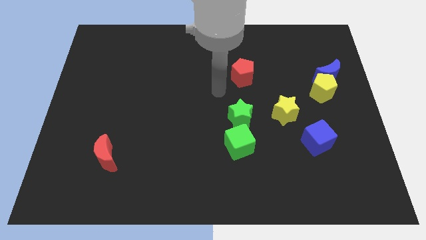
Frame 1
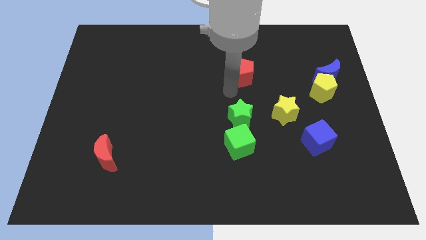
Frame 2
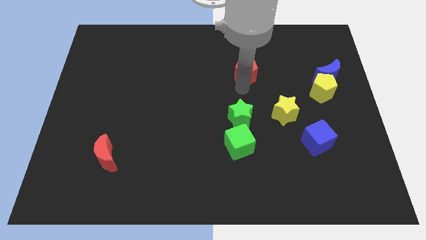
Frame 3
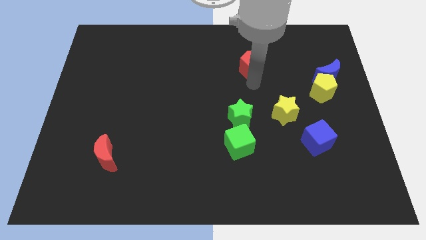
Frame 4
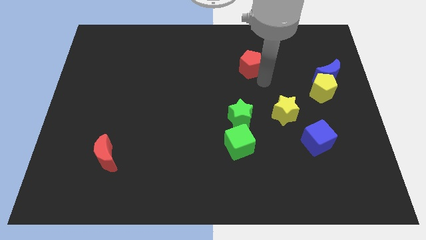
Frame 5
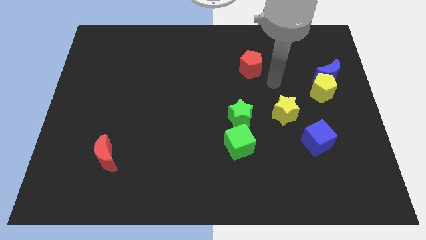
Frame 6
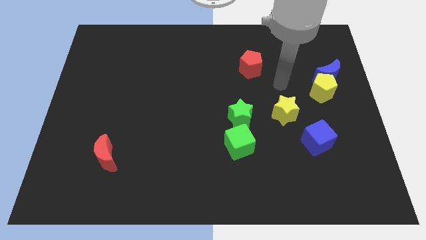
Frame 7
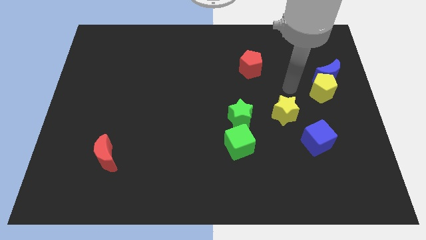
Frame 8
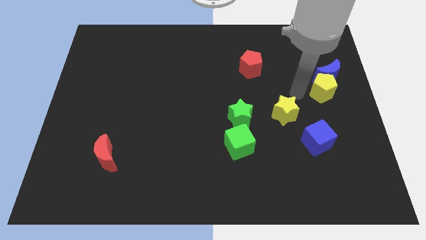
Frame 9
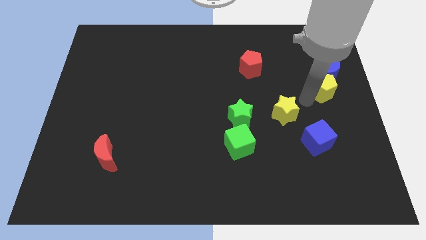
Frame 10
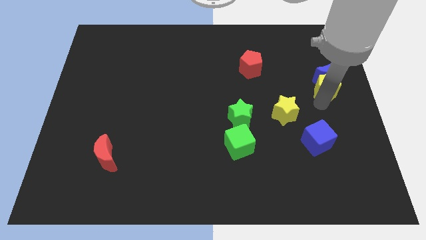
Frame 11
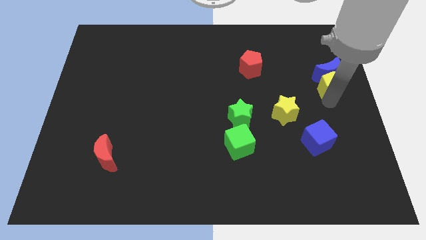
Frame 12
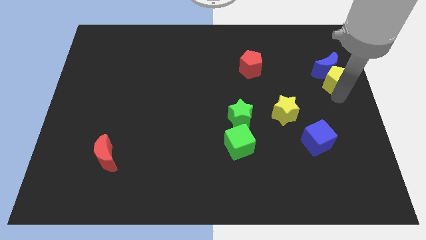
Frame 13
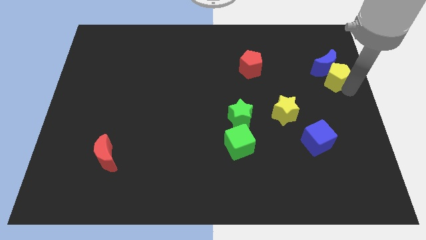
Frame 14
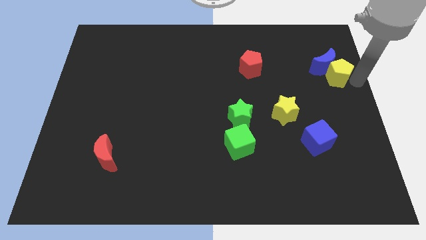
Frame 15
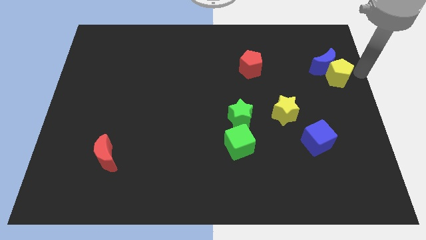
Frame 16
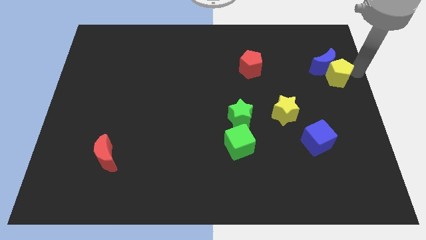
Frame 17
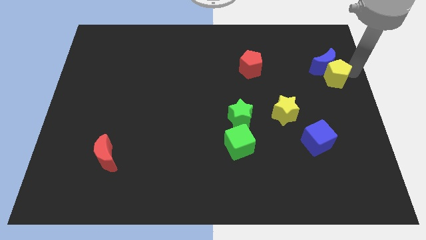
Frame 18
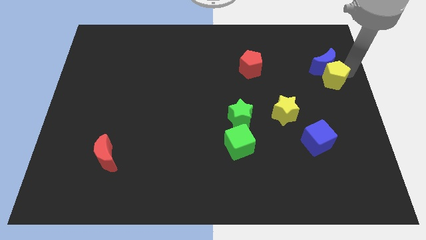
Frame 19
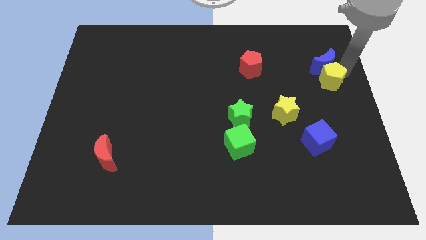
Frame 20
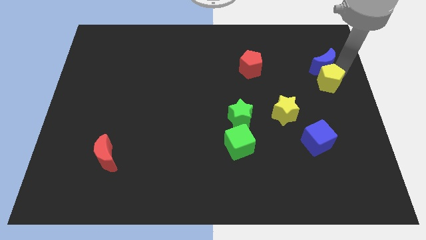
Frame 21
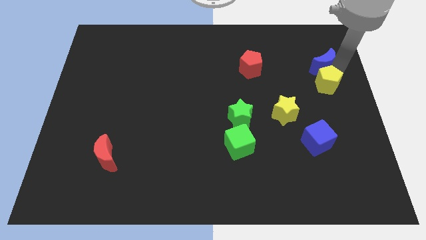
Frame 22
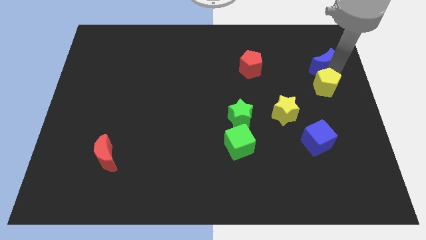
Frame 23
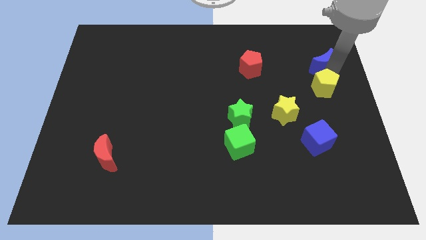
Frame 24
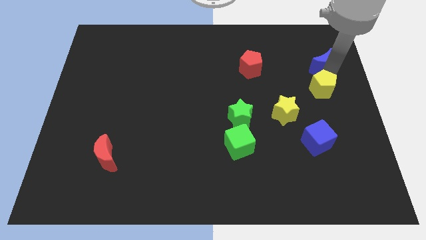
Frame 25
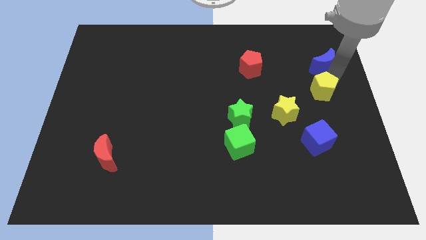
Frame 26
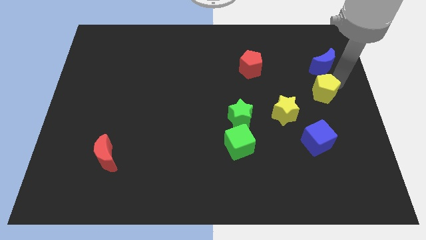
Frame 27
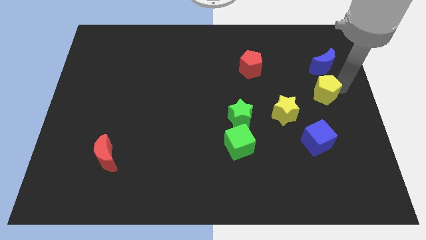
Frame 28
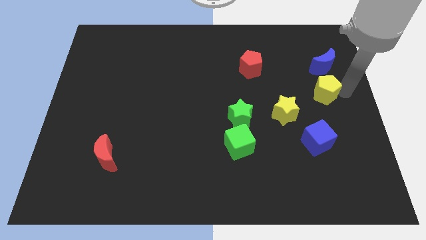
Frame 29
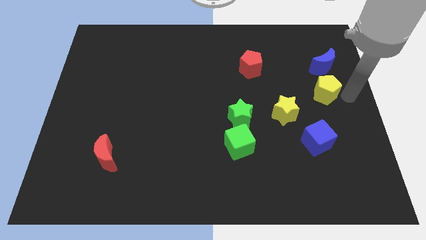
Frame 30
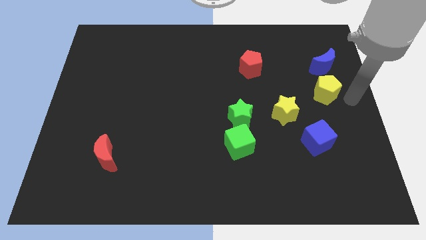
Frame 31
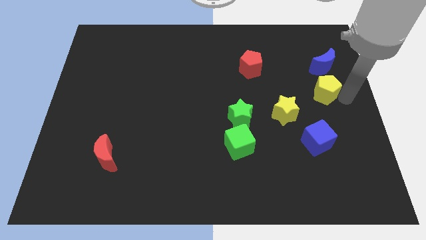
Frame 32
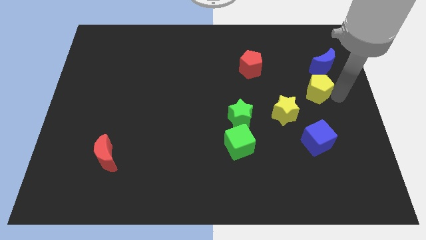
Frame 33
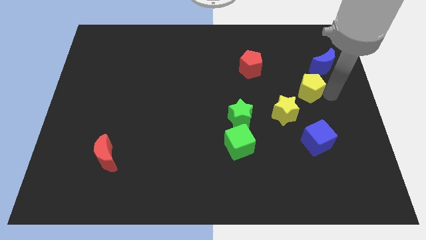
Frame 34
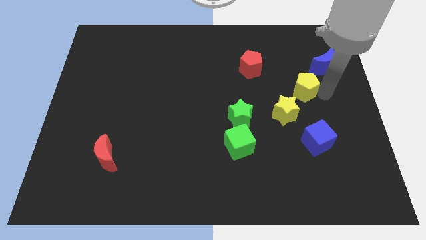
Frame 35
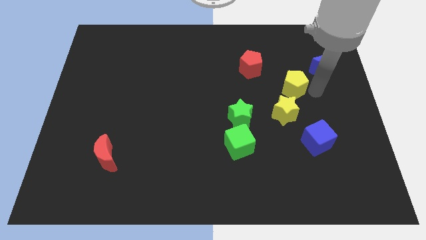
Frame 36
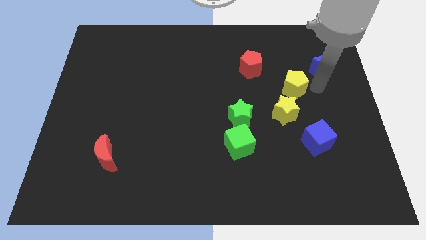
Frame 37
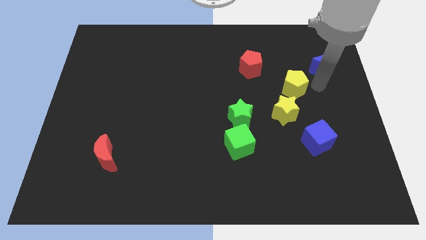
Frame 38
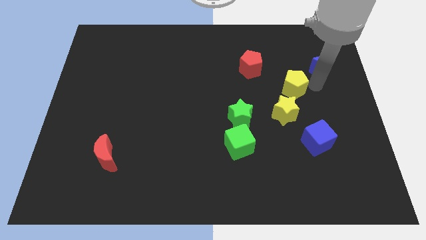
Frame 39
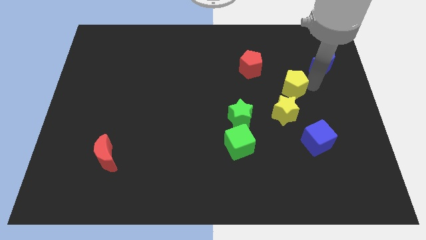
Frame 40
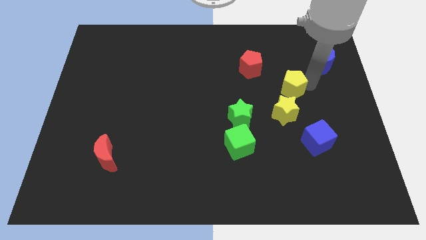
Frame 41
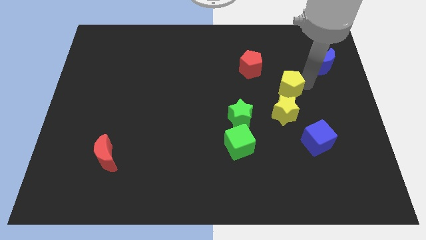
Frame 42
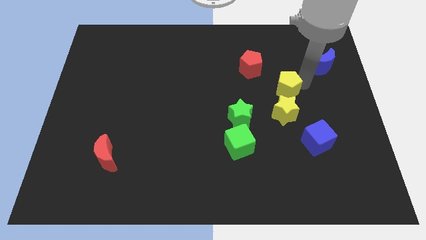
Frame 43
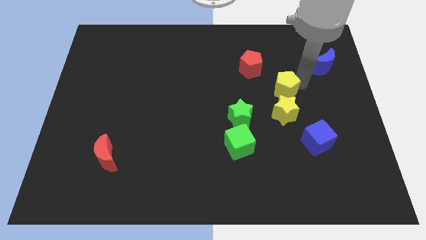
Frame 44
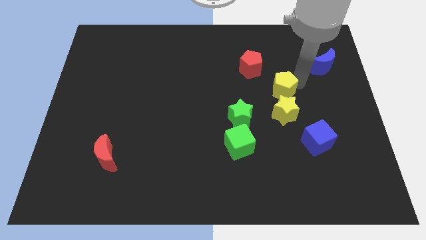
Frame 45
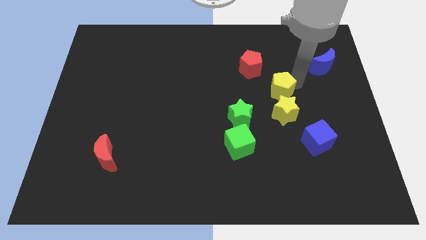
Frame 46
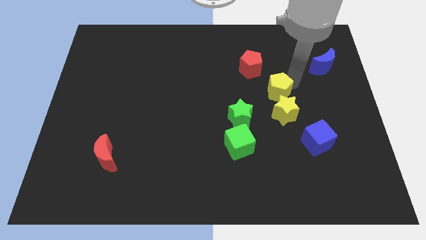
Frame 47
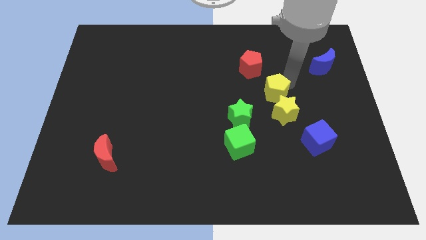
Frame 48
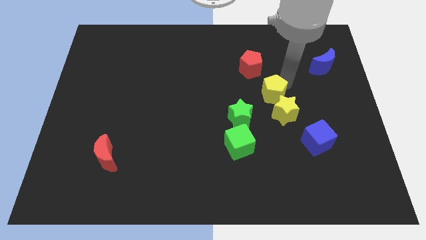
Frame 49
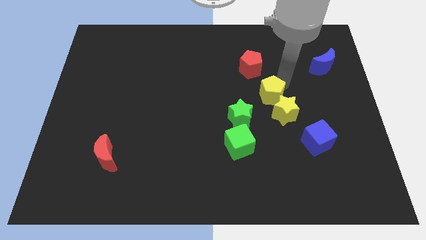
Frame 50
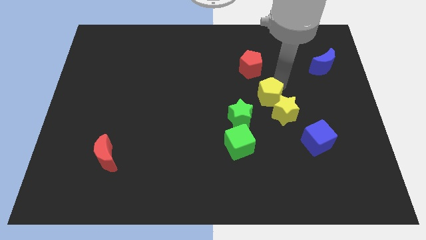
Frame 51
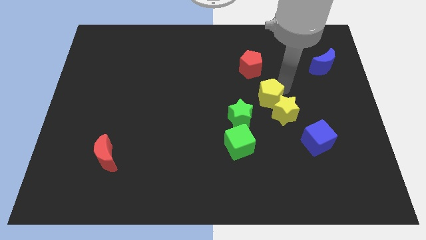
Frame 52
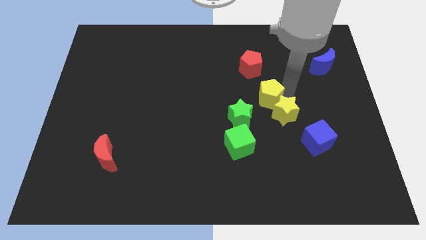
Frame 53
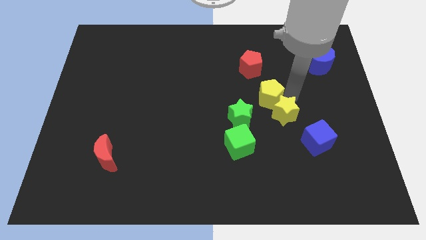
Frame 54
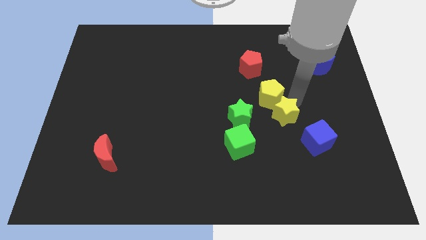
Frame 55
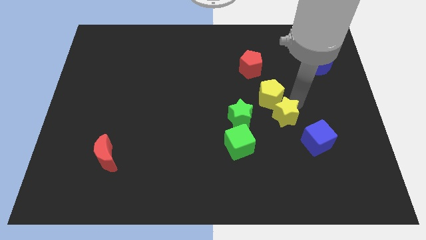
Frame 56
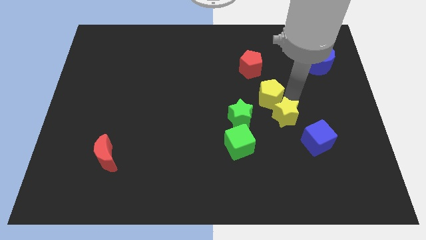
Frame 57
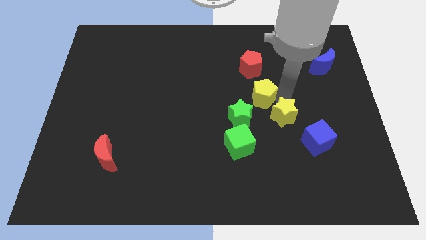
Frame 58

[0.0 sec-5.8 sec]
push the yellow pentagon to the center of the board
